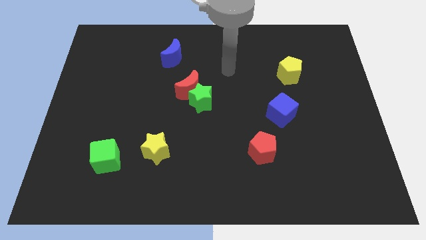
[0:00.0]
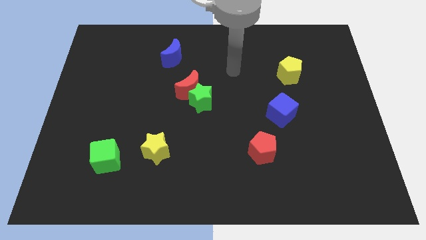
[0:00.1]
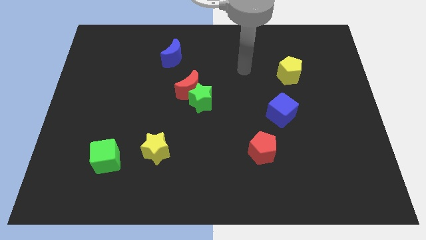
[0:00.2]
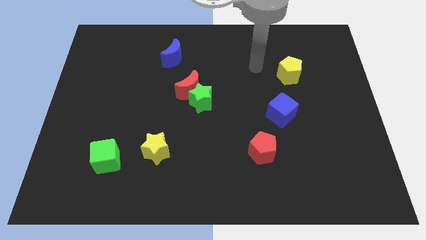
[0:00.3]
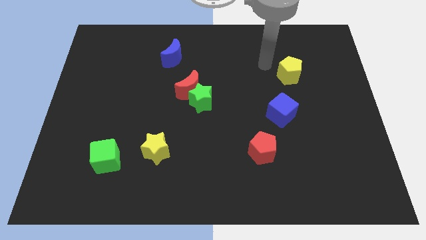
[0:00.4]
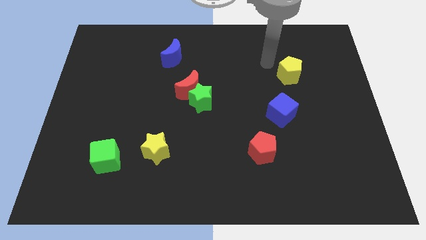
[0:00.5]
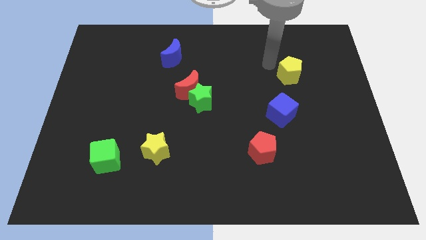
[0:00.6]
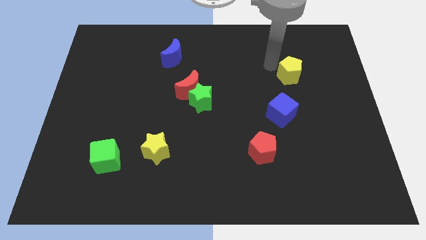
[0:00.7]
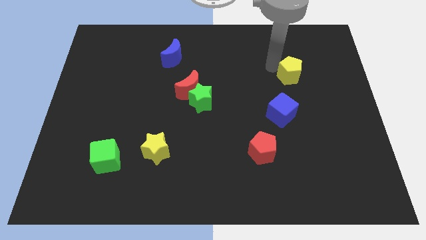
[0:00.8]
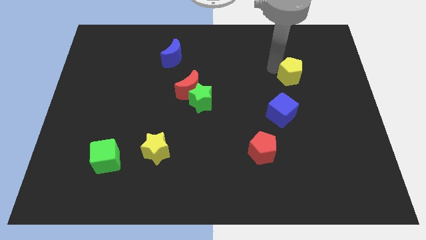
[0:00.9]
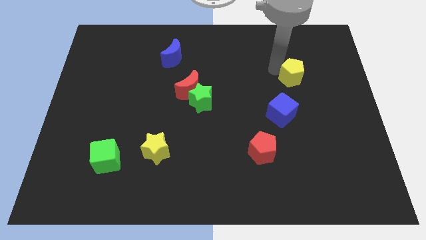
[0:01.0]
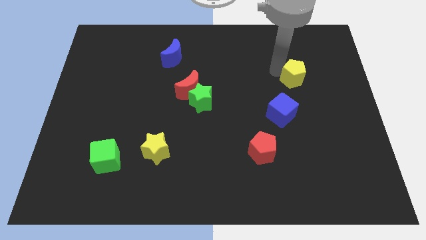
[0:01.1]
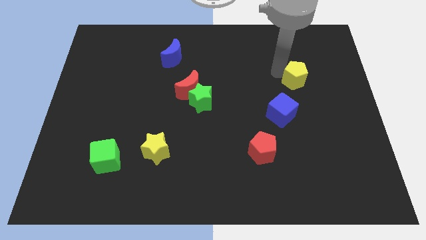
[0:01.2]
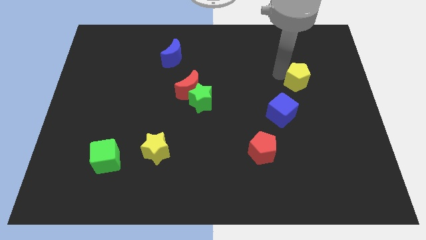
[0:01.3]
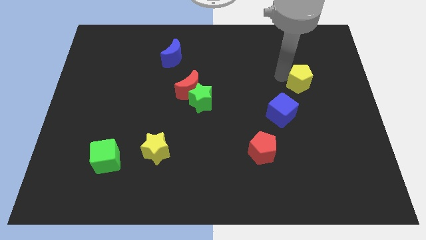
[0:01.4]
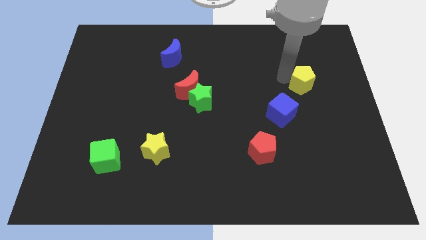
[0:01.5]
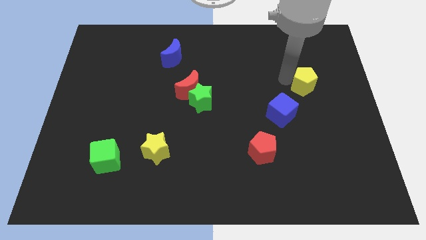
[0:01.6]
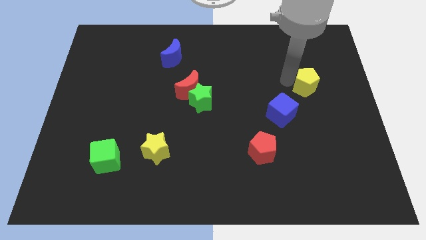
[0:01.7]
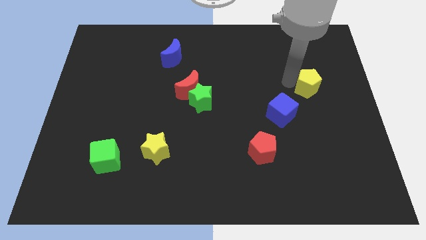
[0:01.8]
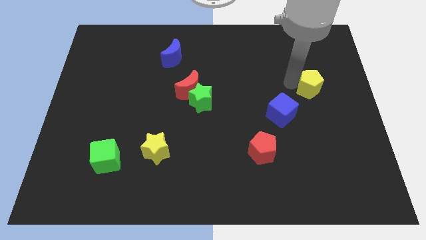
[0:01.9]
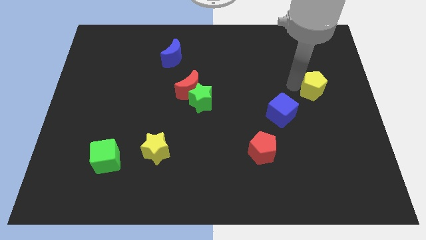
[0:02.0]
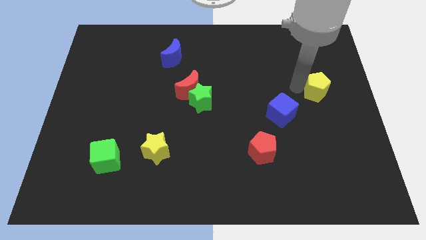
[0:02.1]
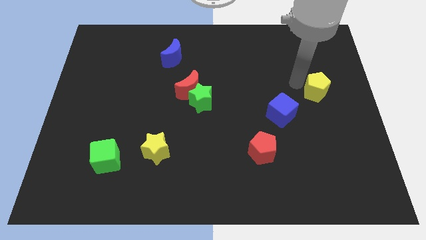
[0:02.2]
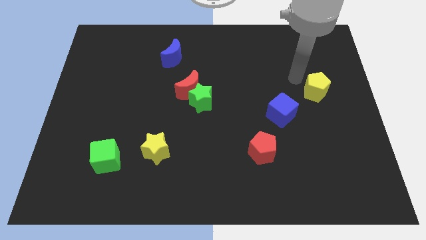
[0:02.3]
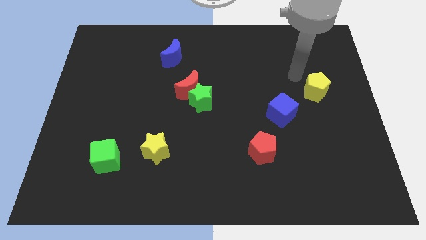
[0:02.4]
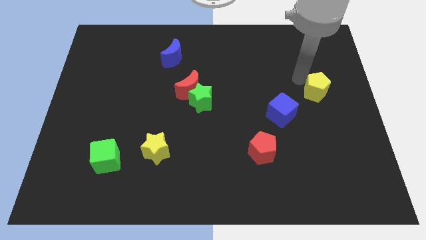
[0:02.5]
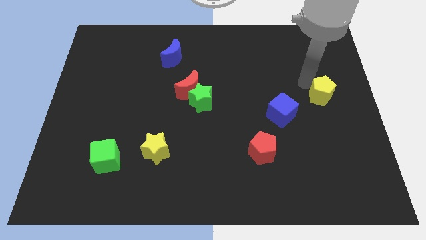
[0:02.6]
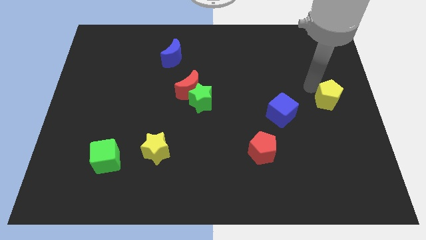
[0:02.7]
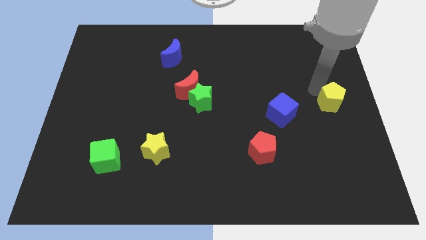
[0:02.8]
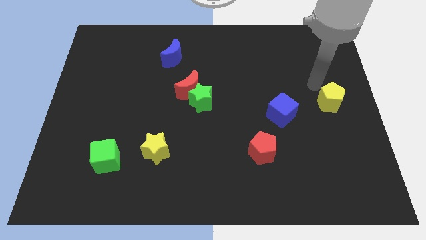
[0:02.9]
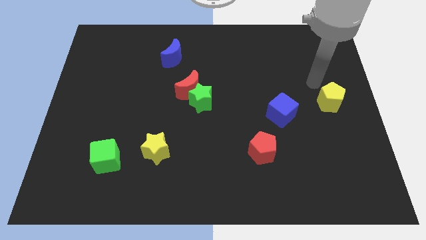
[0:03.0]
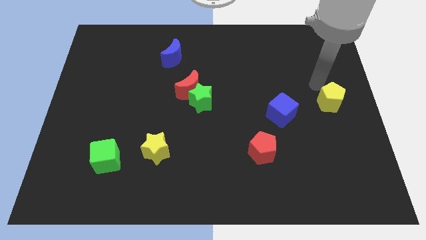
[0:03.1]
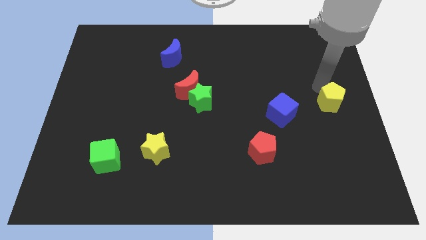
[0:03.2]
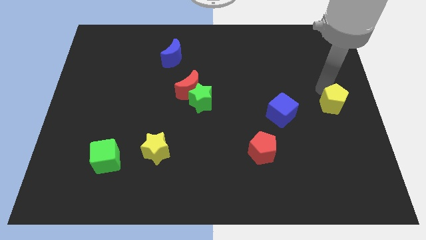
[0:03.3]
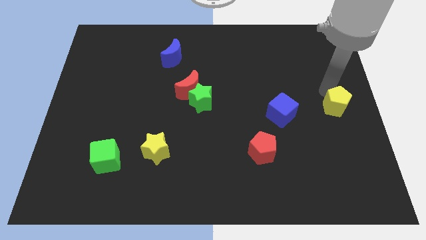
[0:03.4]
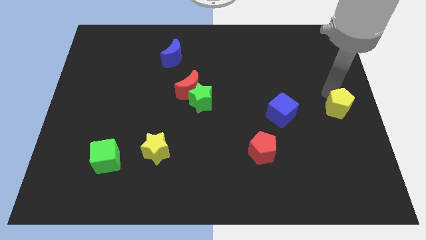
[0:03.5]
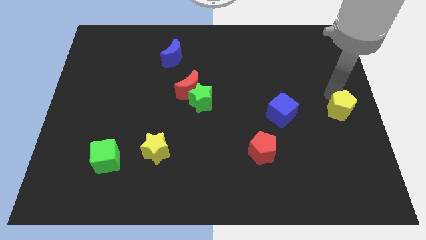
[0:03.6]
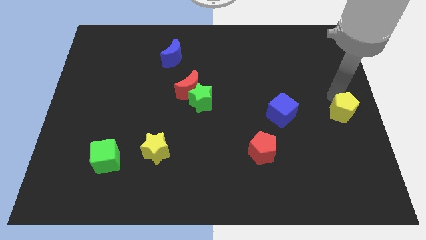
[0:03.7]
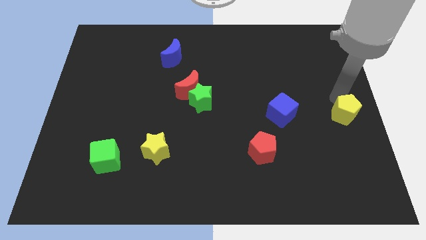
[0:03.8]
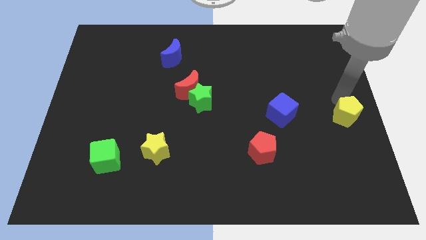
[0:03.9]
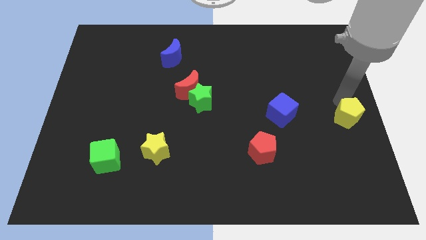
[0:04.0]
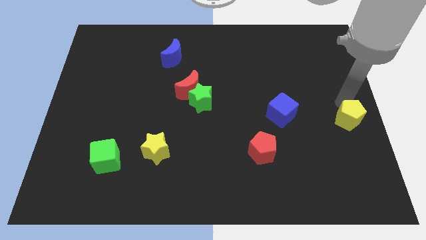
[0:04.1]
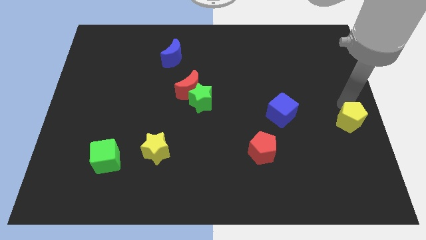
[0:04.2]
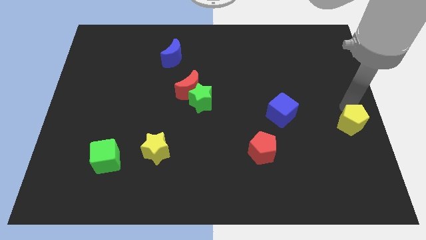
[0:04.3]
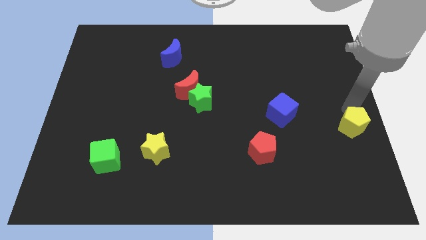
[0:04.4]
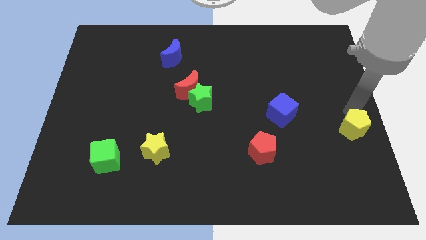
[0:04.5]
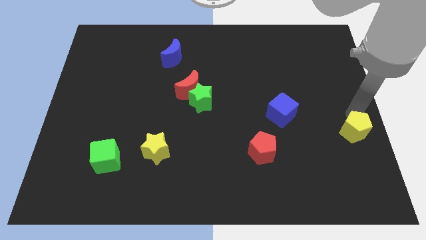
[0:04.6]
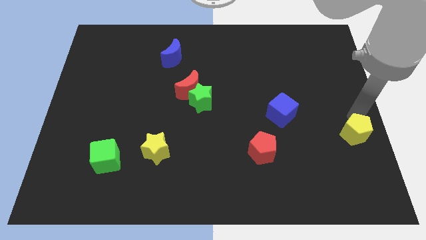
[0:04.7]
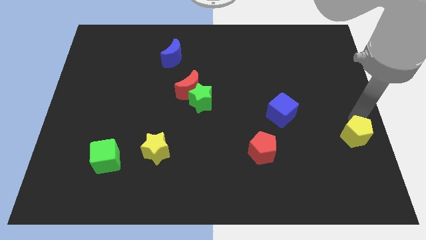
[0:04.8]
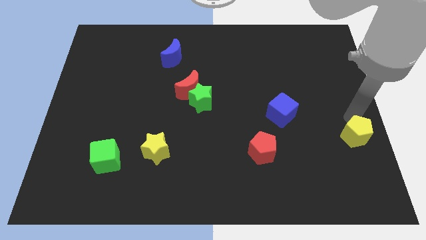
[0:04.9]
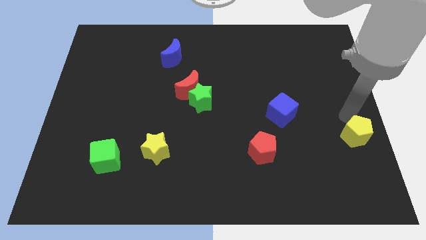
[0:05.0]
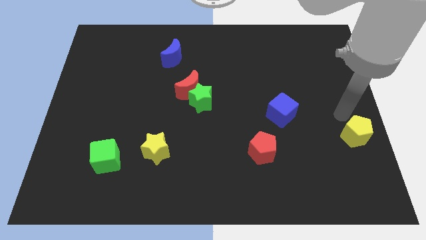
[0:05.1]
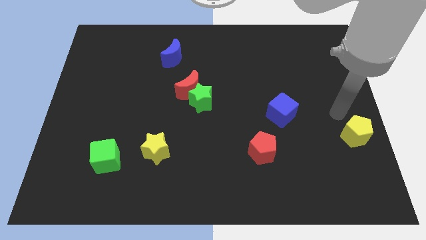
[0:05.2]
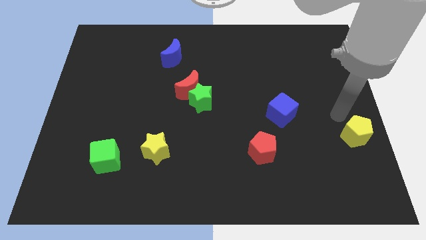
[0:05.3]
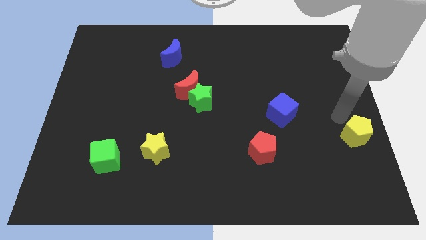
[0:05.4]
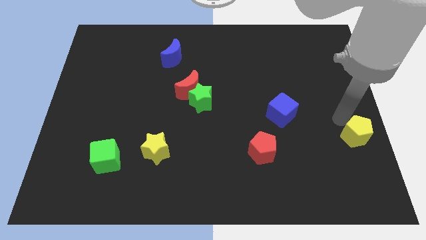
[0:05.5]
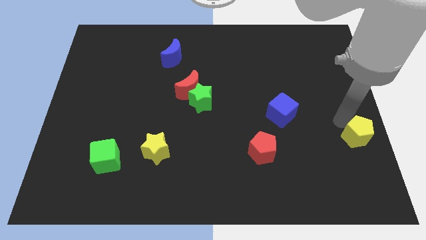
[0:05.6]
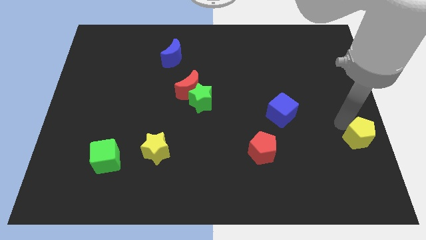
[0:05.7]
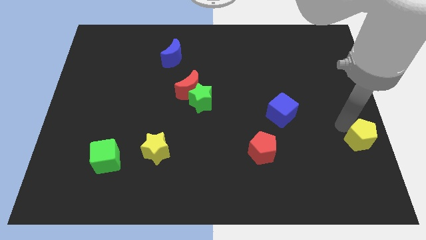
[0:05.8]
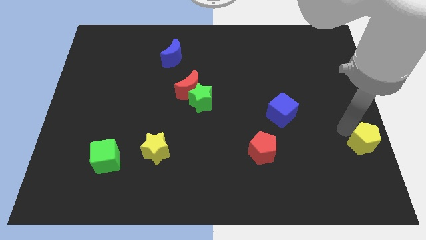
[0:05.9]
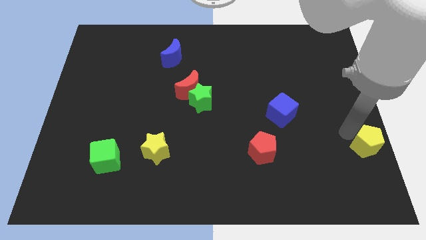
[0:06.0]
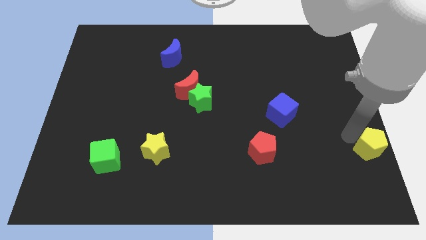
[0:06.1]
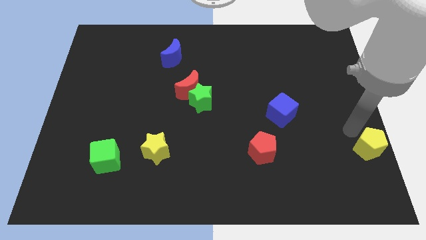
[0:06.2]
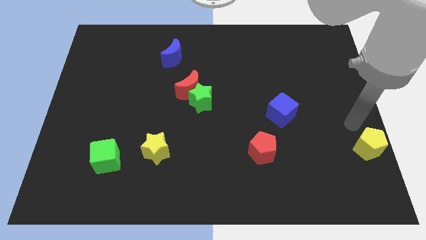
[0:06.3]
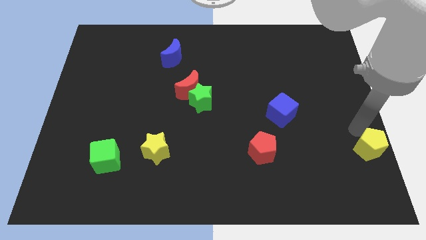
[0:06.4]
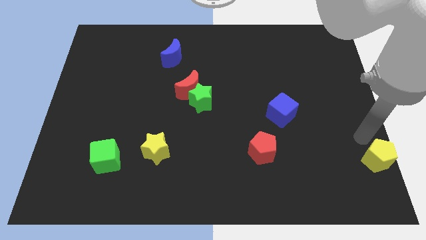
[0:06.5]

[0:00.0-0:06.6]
push the yellow pentagon to the bottom right corner
